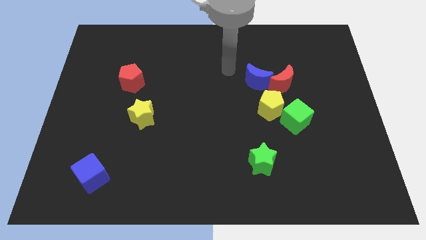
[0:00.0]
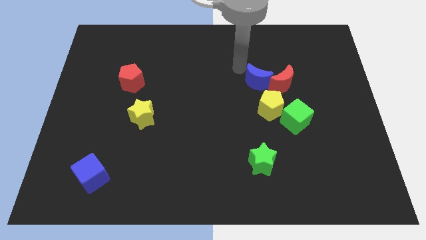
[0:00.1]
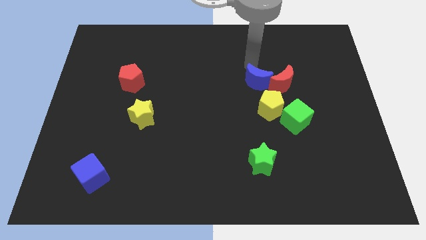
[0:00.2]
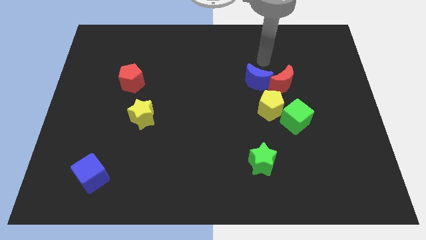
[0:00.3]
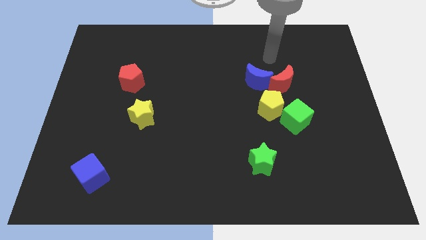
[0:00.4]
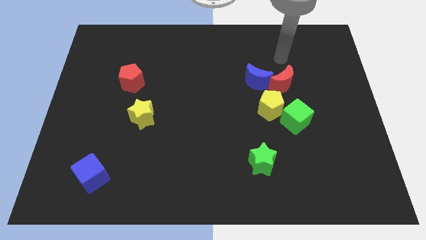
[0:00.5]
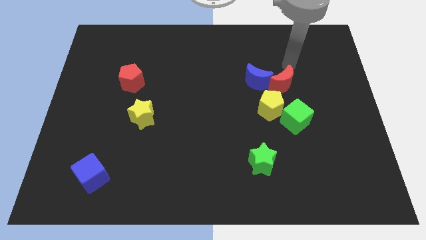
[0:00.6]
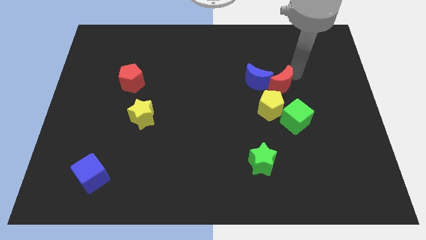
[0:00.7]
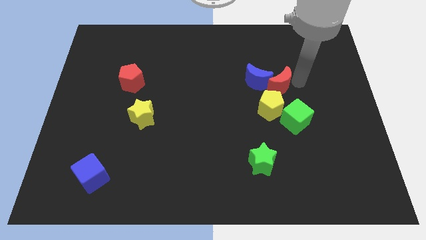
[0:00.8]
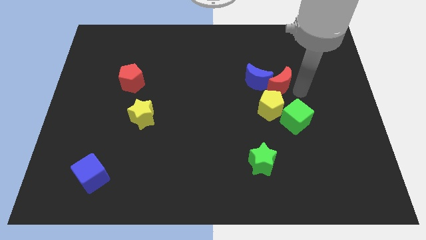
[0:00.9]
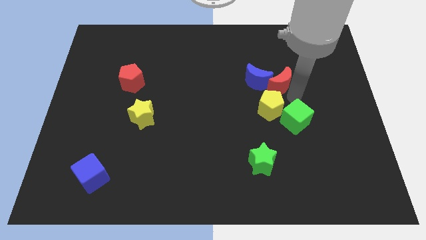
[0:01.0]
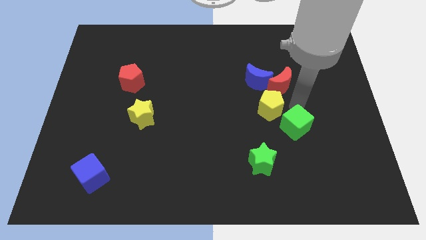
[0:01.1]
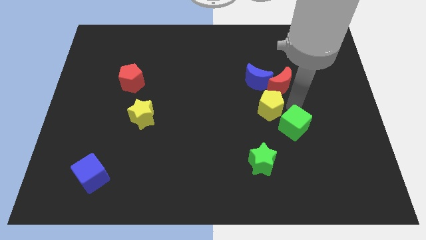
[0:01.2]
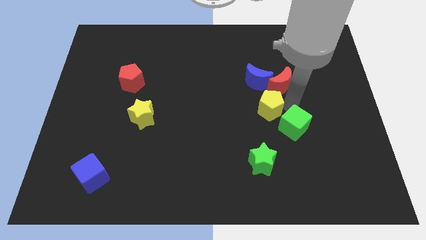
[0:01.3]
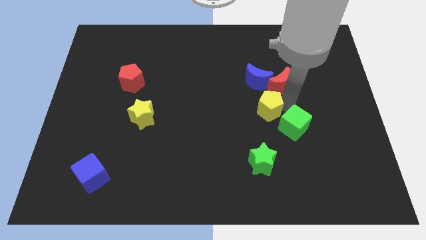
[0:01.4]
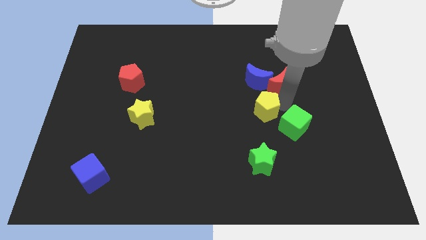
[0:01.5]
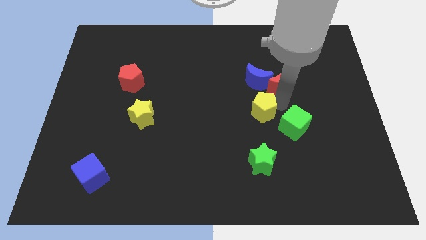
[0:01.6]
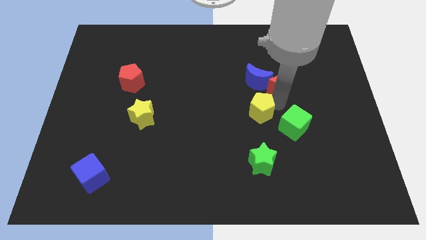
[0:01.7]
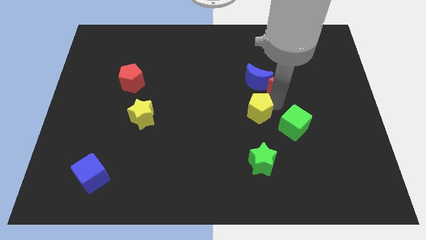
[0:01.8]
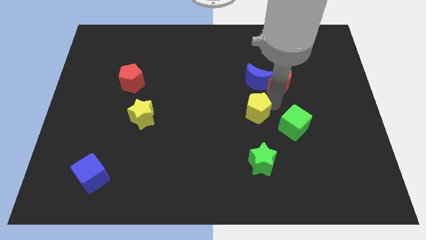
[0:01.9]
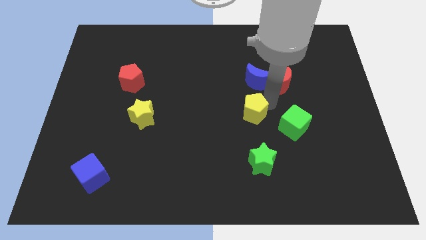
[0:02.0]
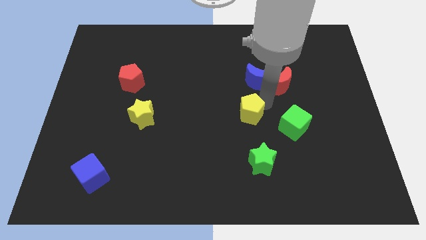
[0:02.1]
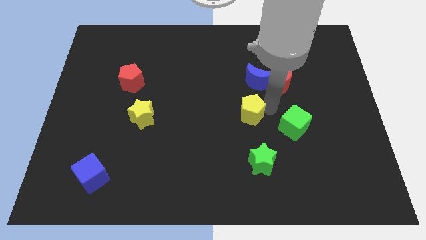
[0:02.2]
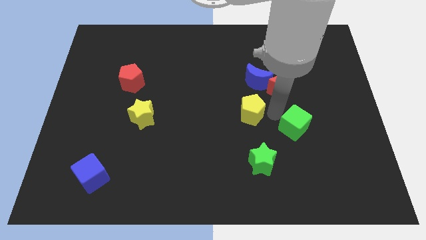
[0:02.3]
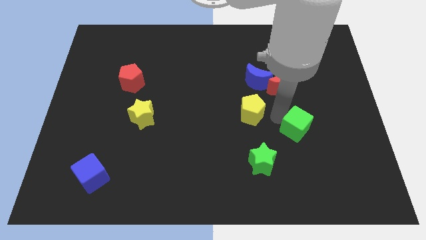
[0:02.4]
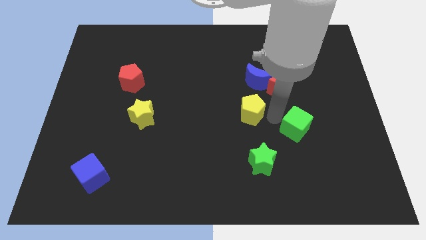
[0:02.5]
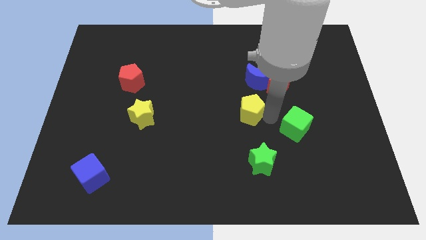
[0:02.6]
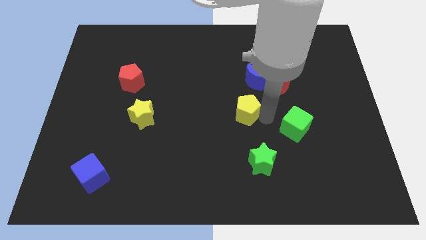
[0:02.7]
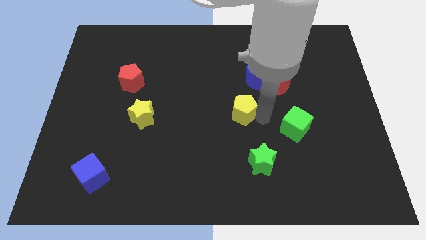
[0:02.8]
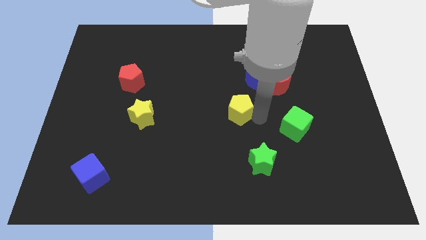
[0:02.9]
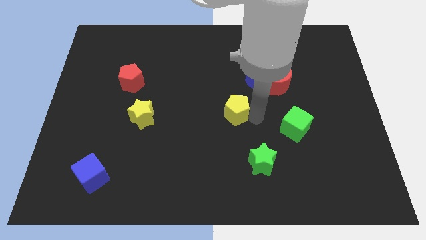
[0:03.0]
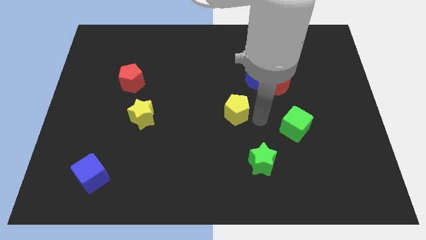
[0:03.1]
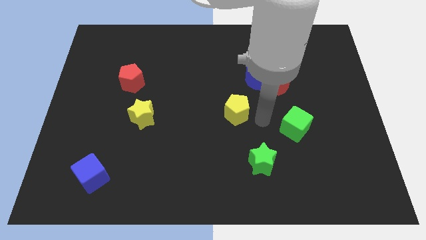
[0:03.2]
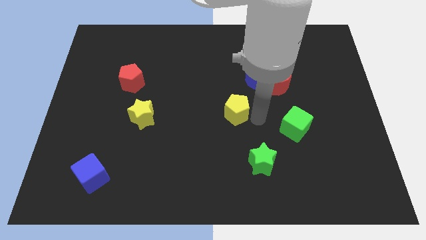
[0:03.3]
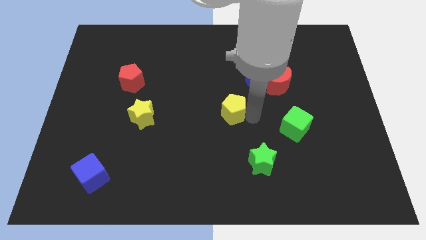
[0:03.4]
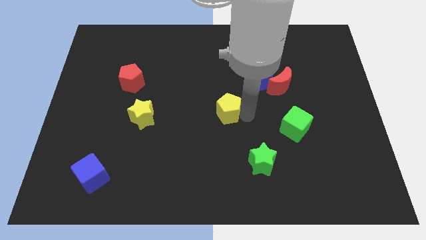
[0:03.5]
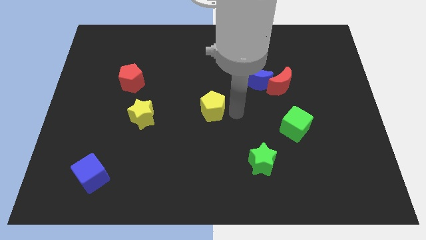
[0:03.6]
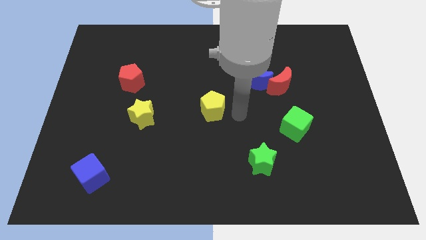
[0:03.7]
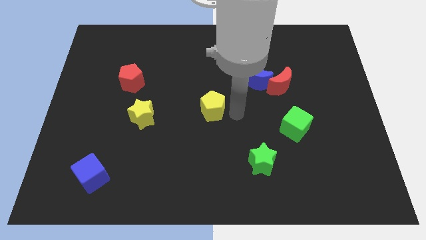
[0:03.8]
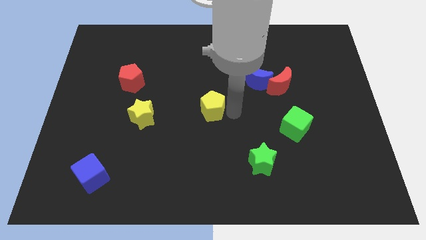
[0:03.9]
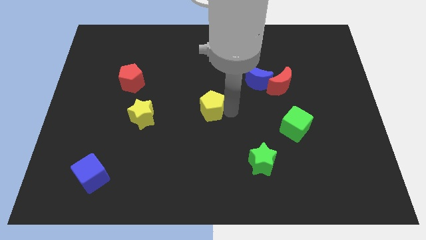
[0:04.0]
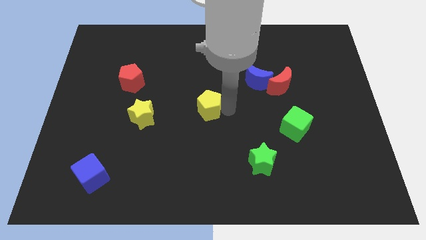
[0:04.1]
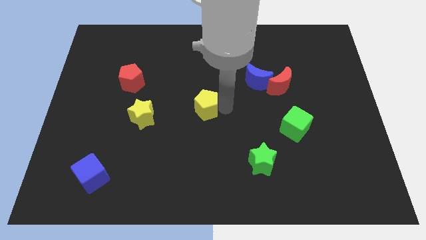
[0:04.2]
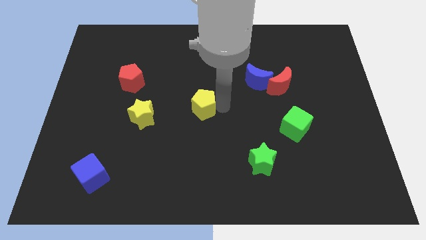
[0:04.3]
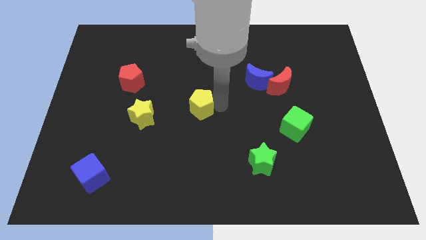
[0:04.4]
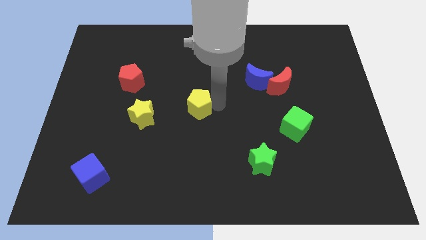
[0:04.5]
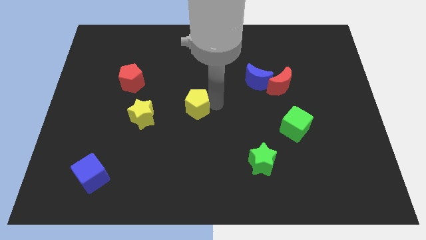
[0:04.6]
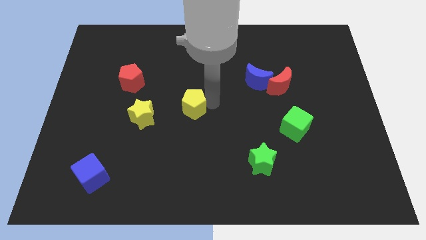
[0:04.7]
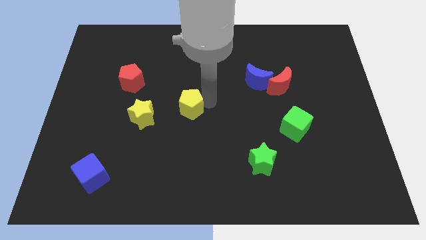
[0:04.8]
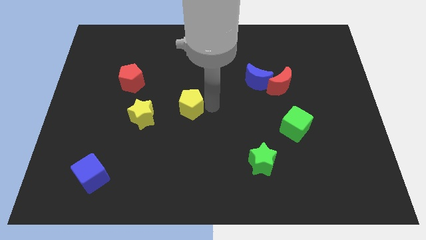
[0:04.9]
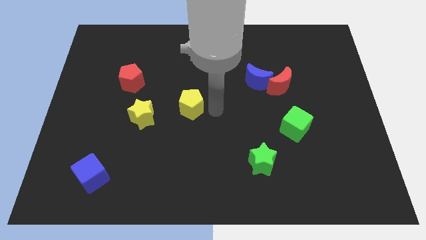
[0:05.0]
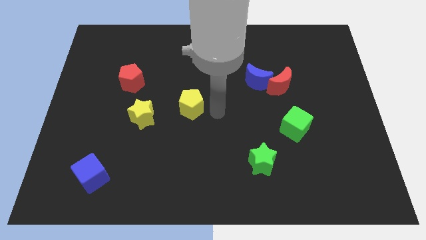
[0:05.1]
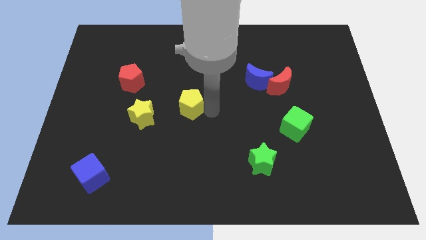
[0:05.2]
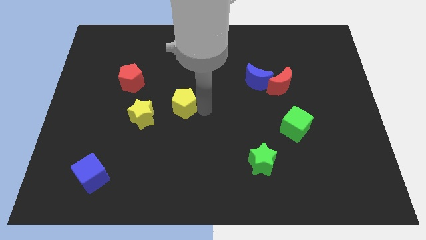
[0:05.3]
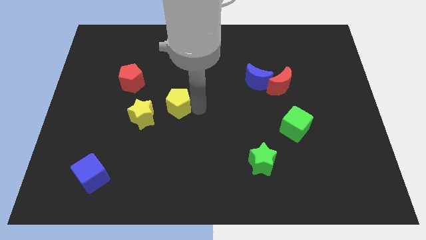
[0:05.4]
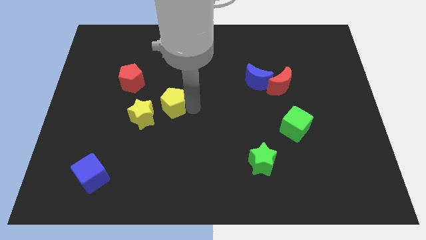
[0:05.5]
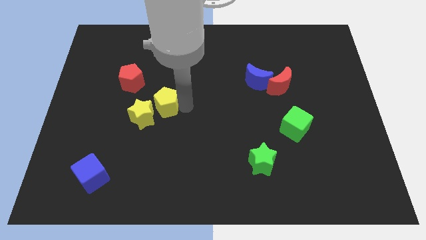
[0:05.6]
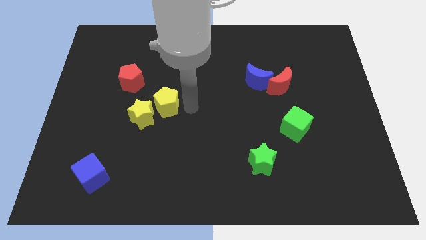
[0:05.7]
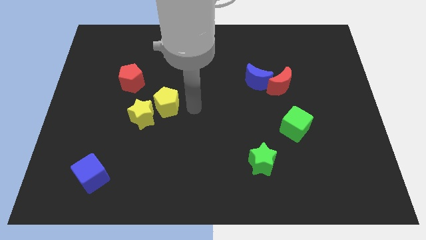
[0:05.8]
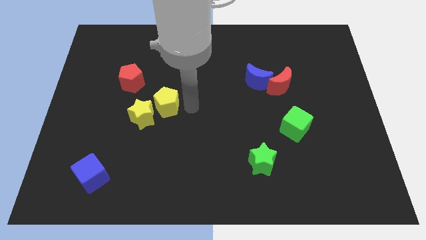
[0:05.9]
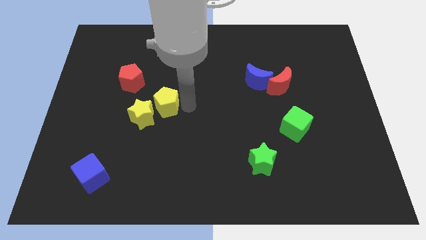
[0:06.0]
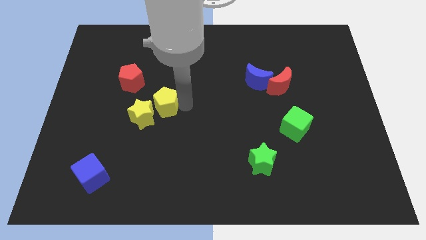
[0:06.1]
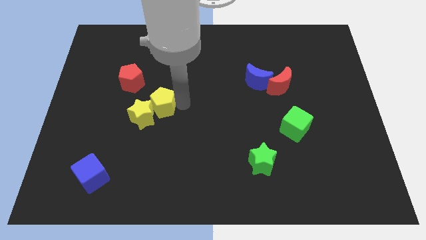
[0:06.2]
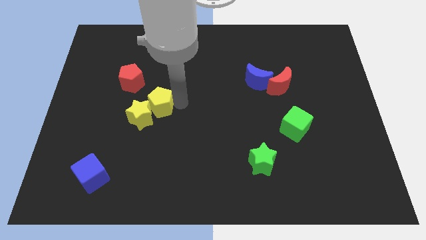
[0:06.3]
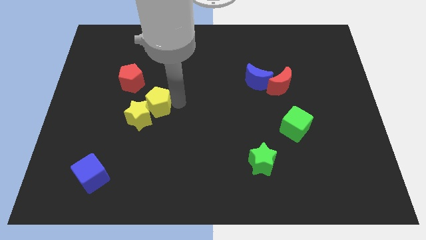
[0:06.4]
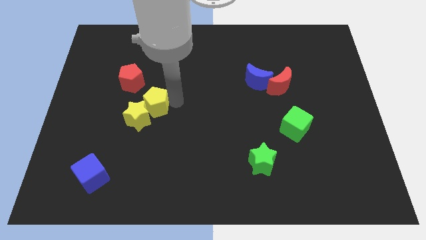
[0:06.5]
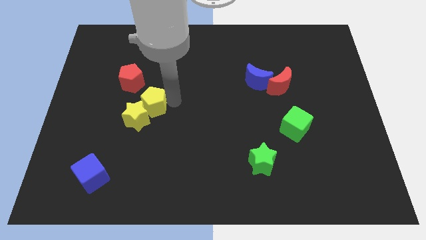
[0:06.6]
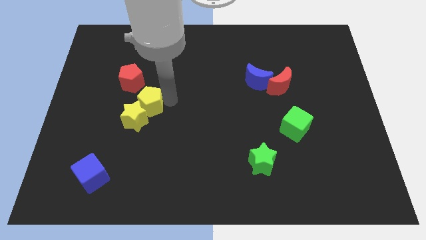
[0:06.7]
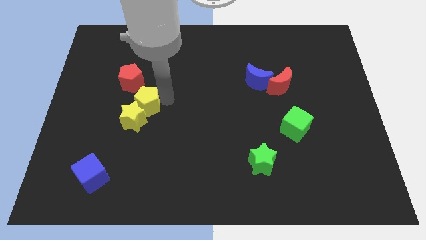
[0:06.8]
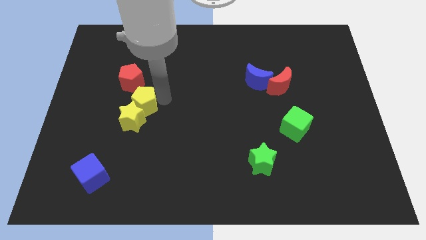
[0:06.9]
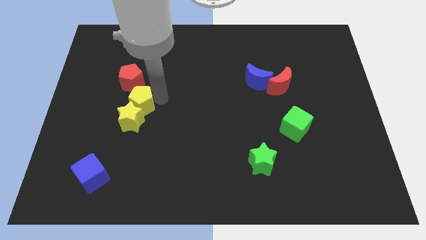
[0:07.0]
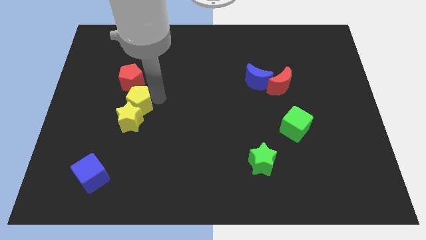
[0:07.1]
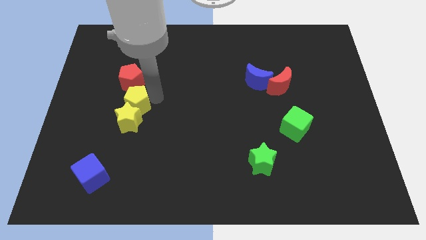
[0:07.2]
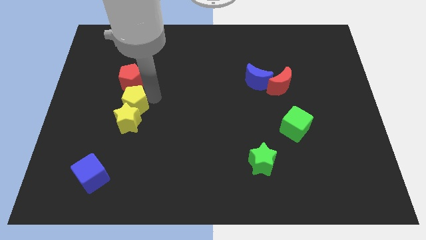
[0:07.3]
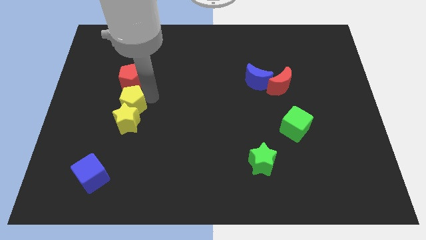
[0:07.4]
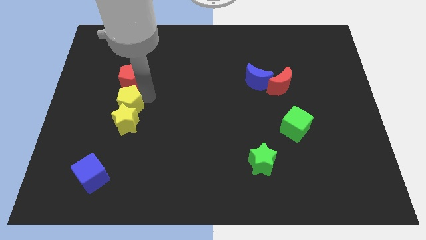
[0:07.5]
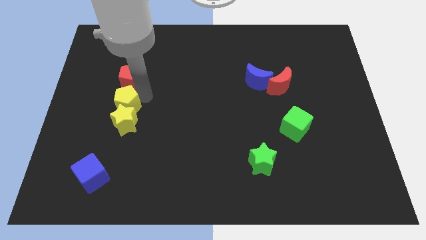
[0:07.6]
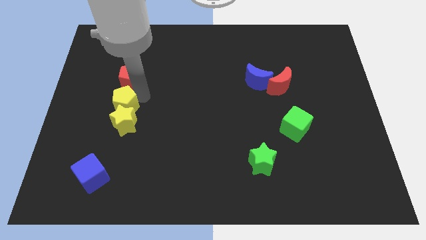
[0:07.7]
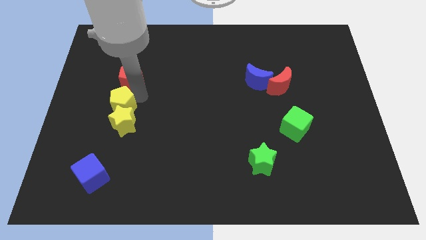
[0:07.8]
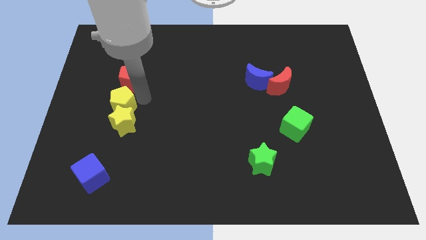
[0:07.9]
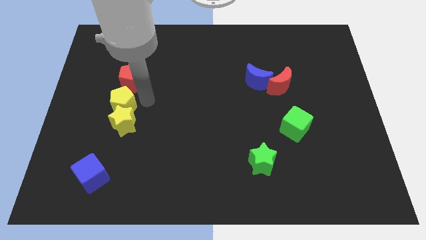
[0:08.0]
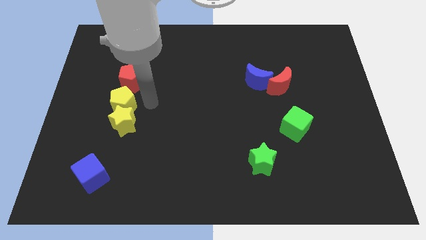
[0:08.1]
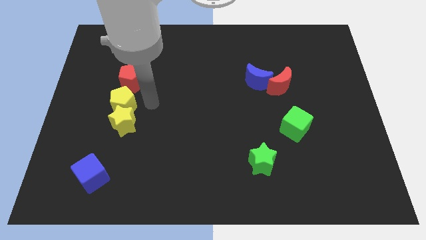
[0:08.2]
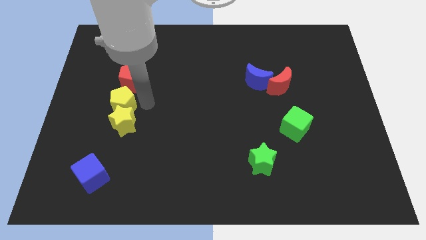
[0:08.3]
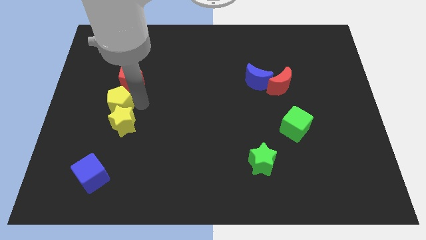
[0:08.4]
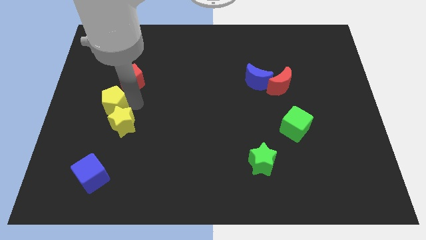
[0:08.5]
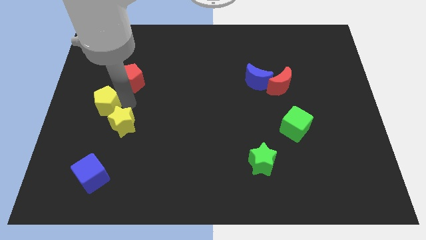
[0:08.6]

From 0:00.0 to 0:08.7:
slide the yellow pentagon to the center left
